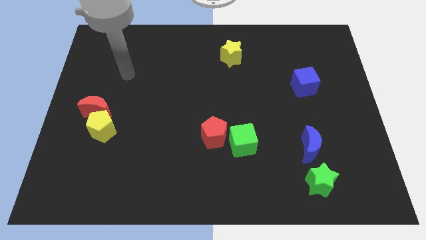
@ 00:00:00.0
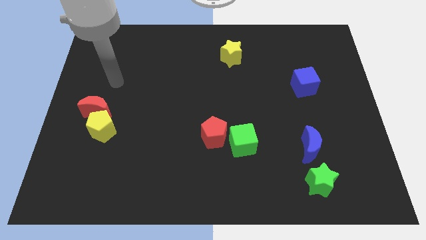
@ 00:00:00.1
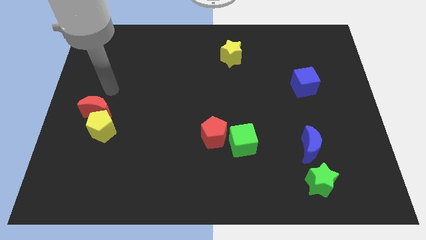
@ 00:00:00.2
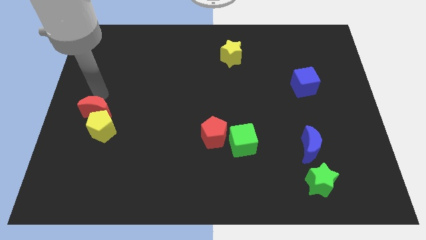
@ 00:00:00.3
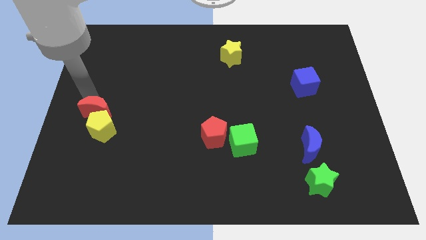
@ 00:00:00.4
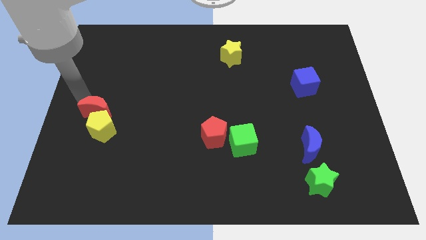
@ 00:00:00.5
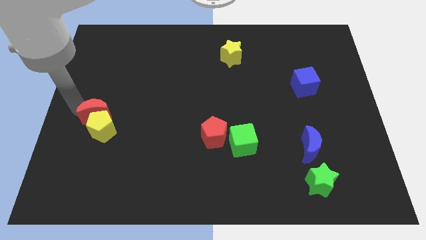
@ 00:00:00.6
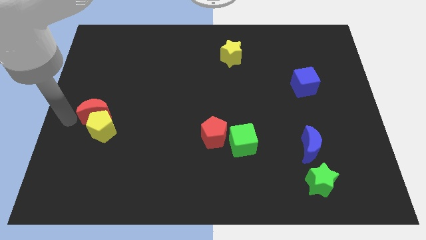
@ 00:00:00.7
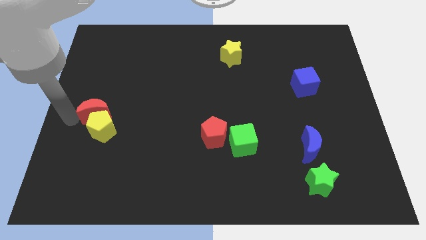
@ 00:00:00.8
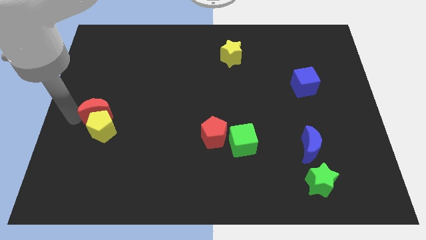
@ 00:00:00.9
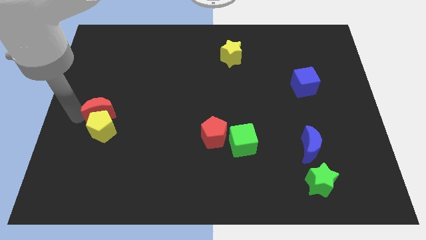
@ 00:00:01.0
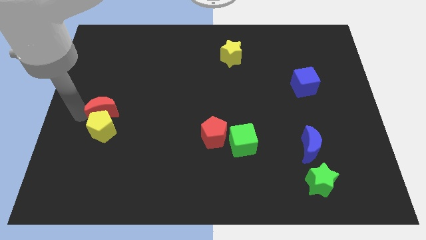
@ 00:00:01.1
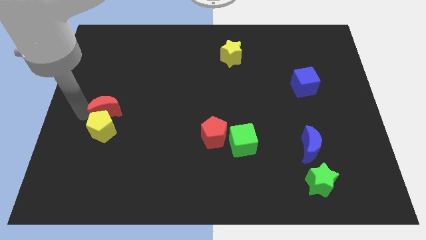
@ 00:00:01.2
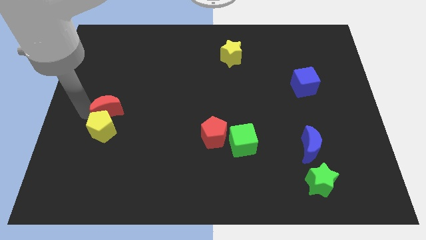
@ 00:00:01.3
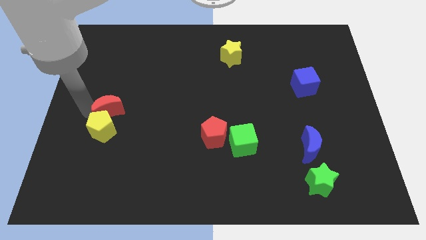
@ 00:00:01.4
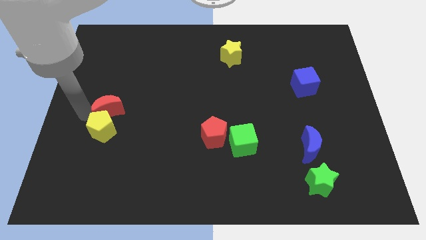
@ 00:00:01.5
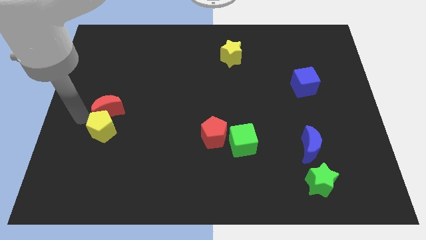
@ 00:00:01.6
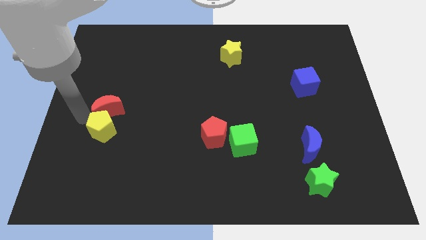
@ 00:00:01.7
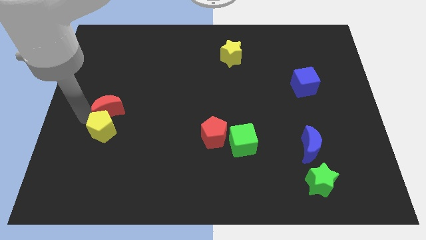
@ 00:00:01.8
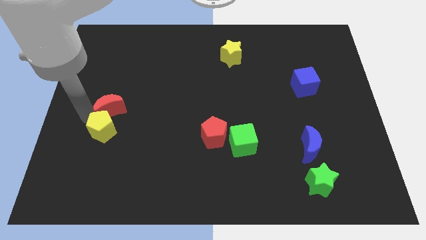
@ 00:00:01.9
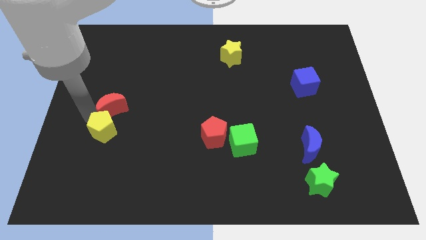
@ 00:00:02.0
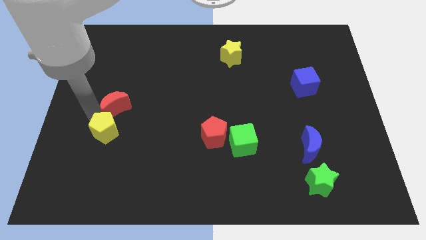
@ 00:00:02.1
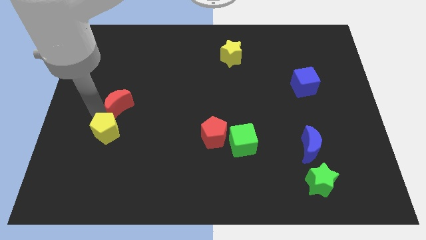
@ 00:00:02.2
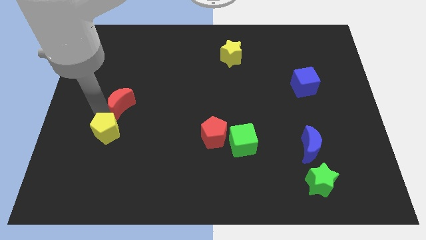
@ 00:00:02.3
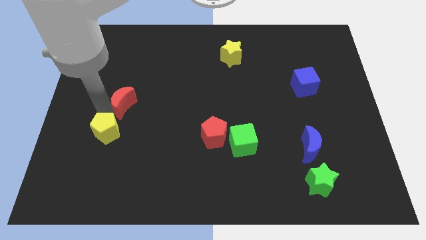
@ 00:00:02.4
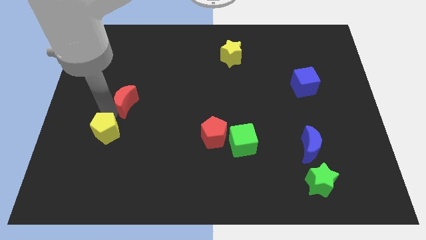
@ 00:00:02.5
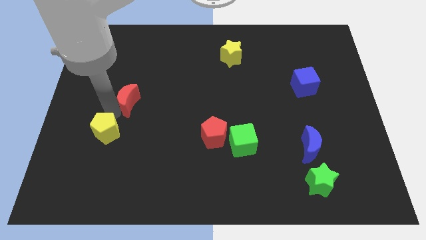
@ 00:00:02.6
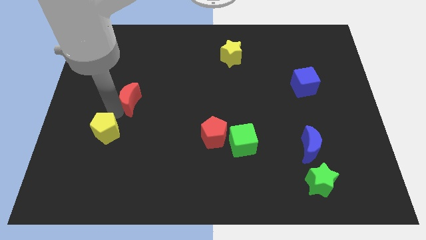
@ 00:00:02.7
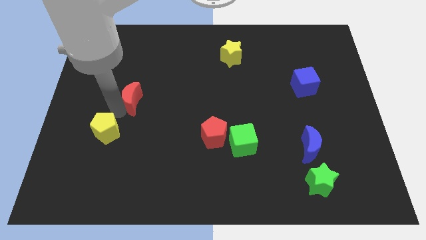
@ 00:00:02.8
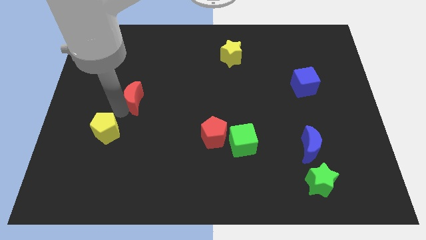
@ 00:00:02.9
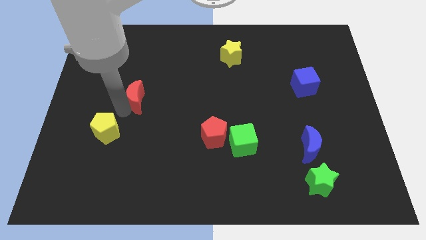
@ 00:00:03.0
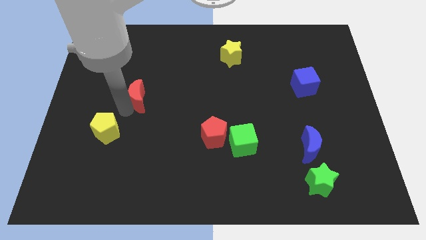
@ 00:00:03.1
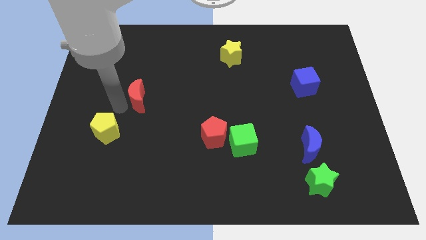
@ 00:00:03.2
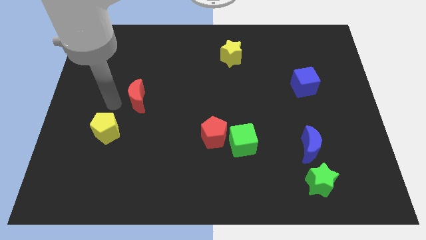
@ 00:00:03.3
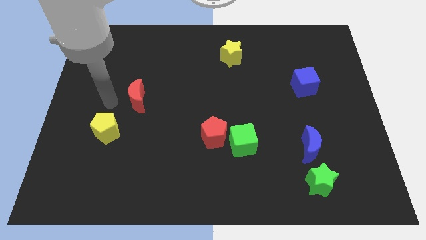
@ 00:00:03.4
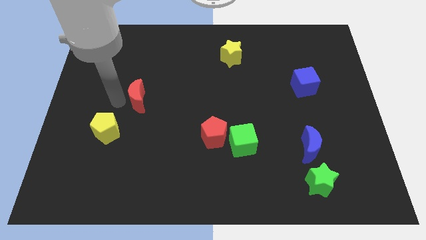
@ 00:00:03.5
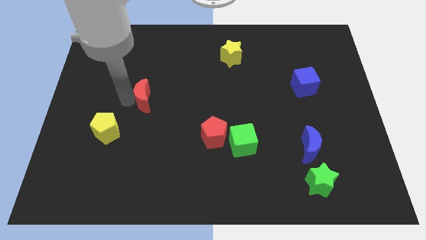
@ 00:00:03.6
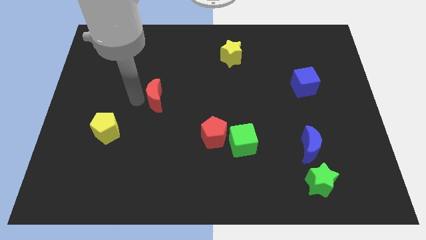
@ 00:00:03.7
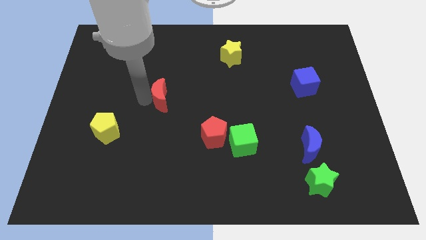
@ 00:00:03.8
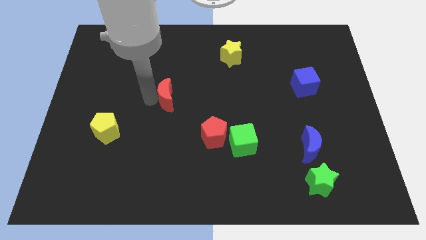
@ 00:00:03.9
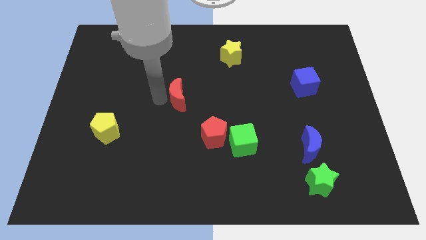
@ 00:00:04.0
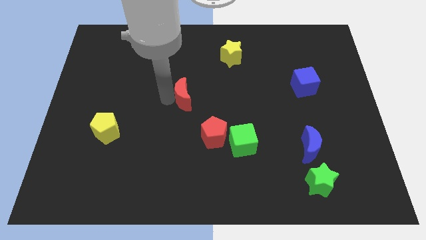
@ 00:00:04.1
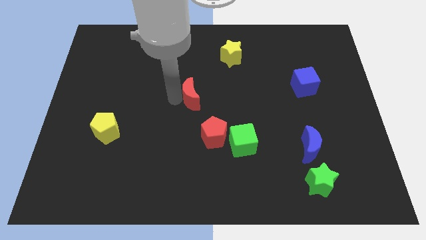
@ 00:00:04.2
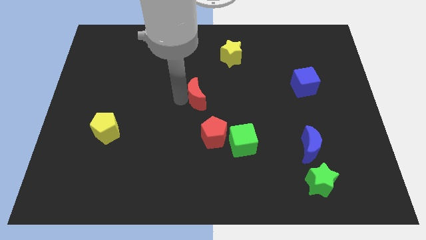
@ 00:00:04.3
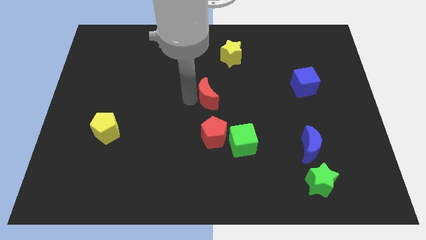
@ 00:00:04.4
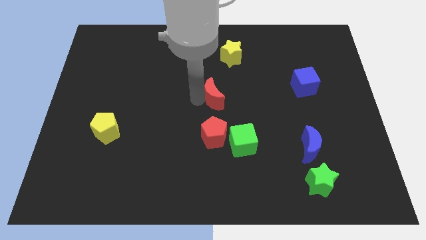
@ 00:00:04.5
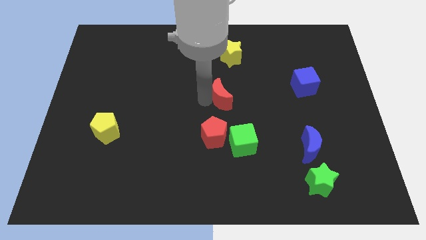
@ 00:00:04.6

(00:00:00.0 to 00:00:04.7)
push the red moon below the yellow star

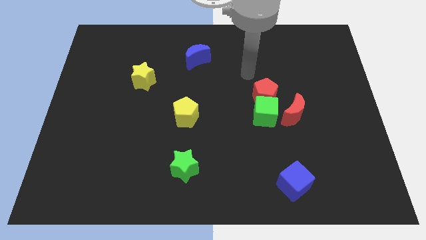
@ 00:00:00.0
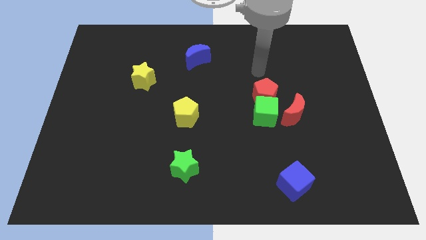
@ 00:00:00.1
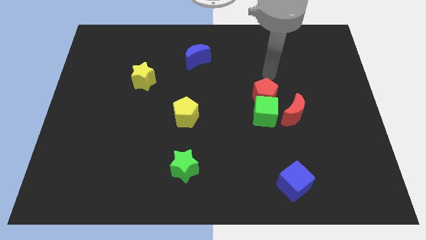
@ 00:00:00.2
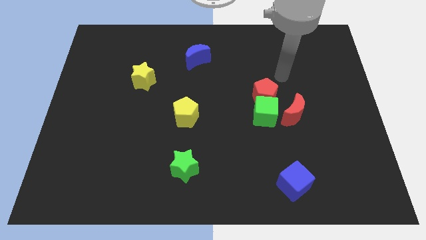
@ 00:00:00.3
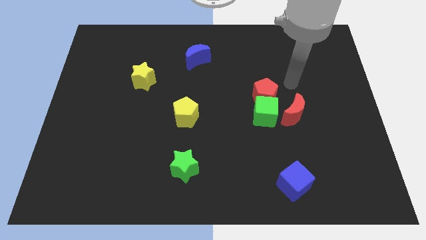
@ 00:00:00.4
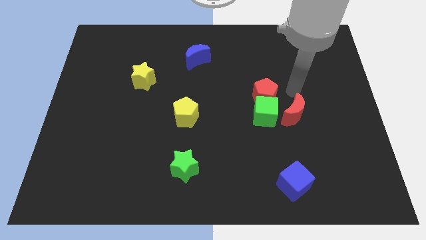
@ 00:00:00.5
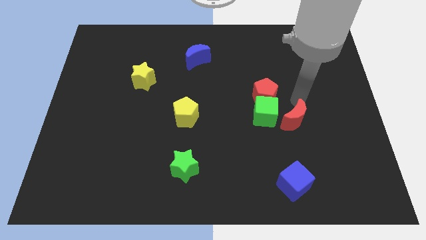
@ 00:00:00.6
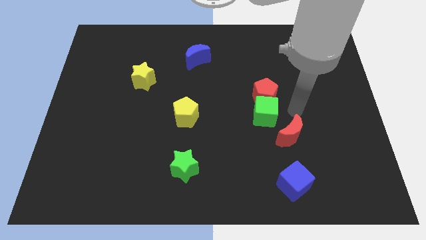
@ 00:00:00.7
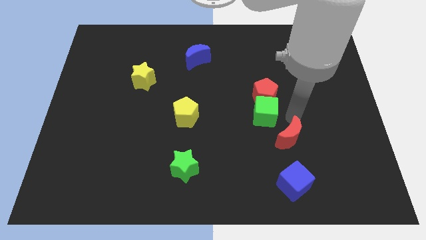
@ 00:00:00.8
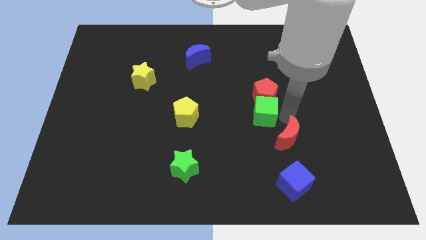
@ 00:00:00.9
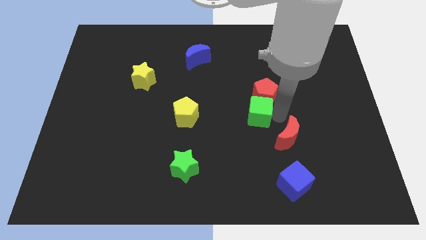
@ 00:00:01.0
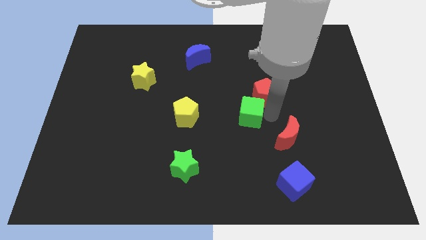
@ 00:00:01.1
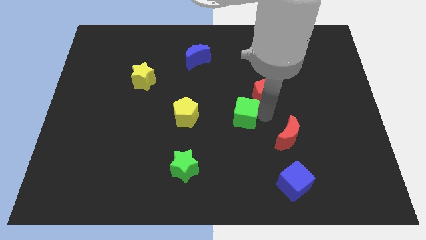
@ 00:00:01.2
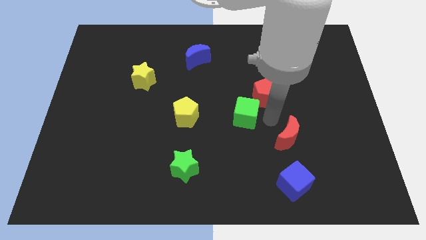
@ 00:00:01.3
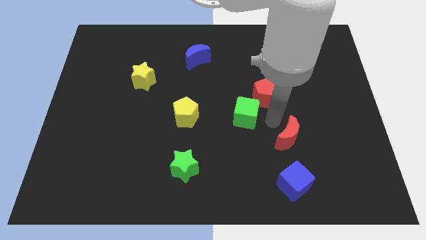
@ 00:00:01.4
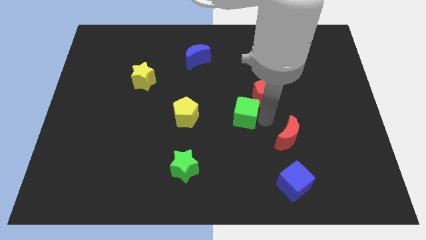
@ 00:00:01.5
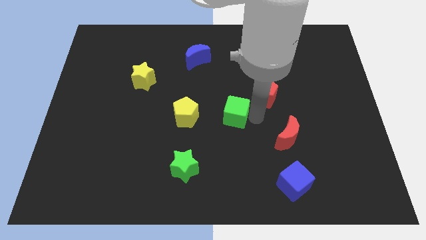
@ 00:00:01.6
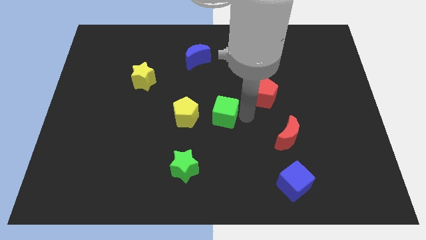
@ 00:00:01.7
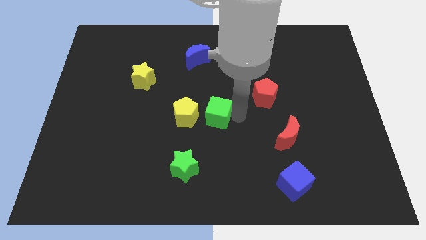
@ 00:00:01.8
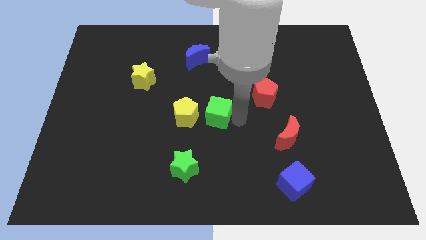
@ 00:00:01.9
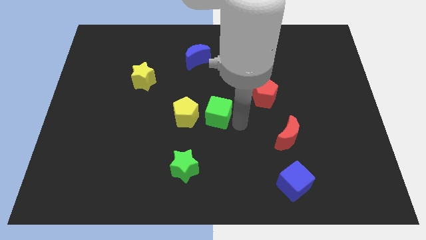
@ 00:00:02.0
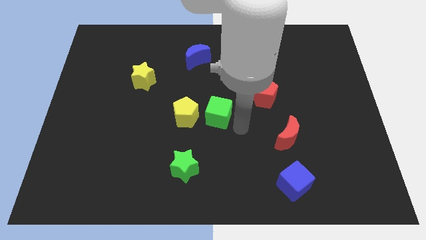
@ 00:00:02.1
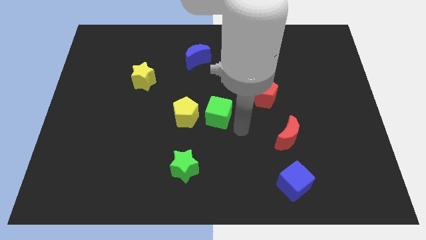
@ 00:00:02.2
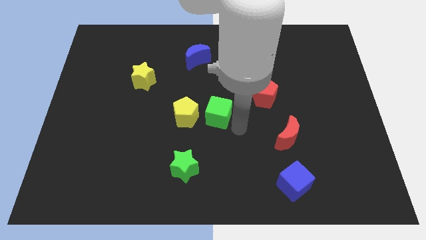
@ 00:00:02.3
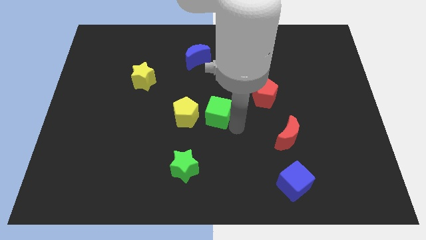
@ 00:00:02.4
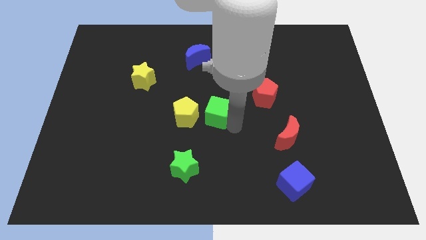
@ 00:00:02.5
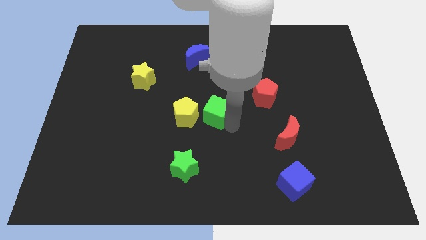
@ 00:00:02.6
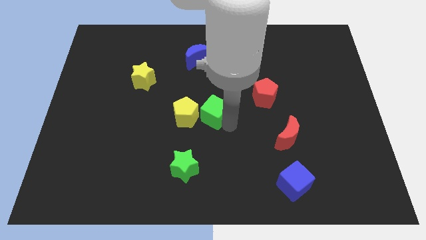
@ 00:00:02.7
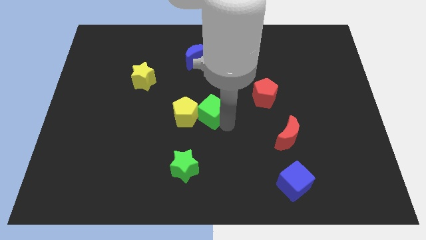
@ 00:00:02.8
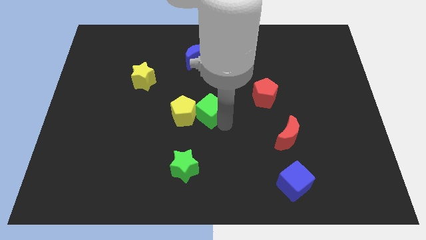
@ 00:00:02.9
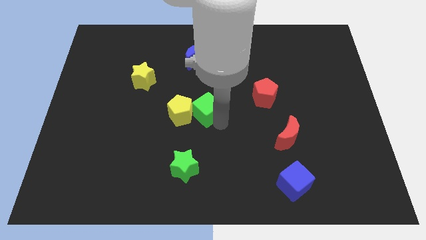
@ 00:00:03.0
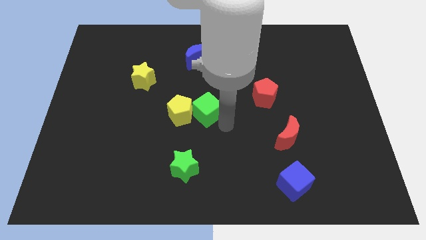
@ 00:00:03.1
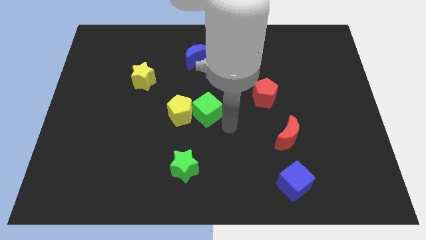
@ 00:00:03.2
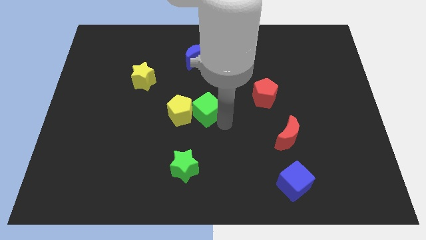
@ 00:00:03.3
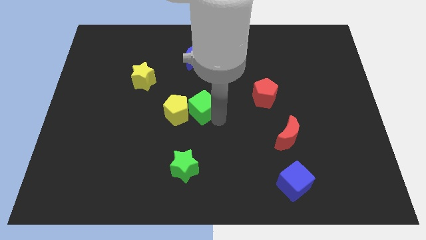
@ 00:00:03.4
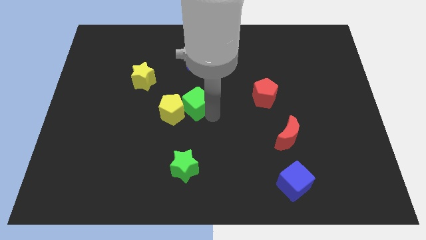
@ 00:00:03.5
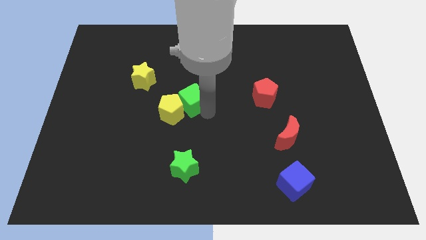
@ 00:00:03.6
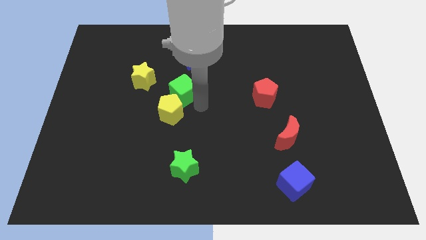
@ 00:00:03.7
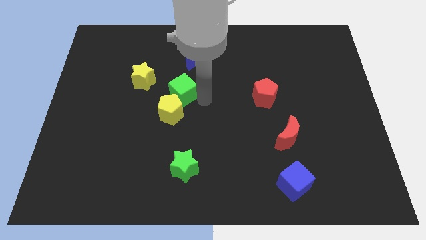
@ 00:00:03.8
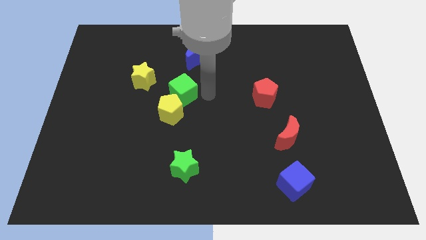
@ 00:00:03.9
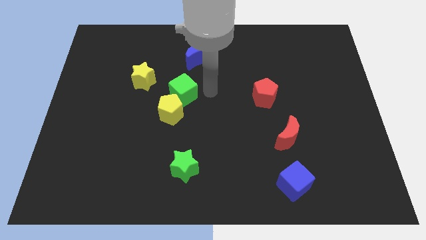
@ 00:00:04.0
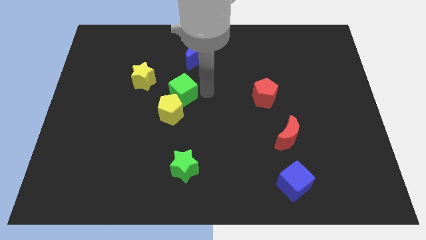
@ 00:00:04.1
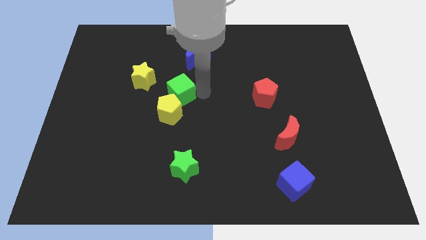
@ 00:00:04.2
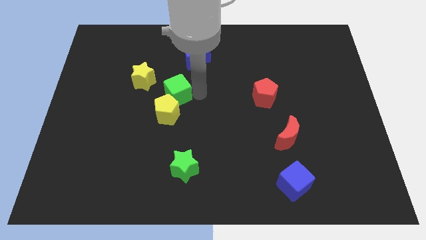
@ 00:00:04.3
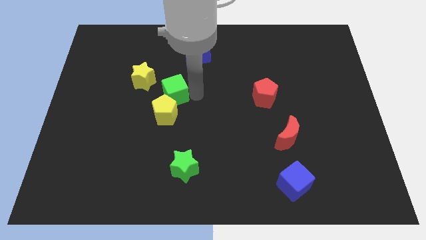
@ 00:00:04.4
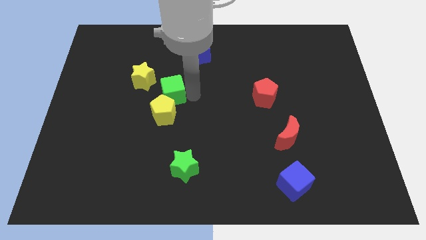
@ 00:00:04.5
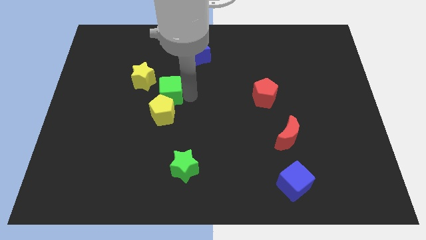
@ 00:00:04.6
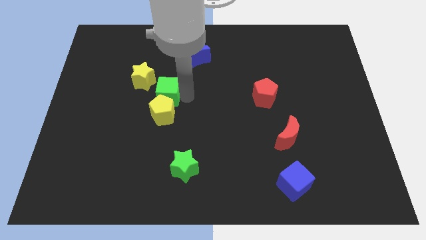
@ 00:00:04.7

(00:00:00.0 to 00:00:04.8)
slide the green cube to the top left side of the yellow pentagon
